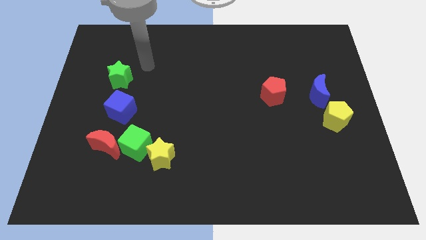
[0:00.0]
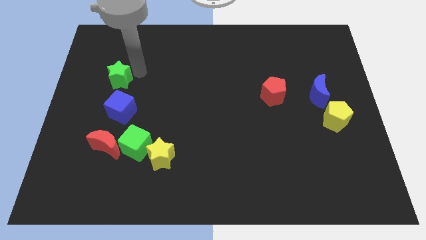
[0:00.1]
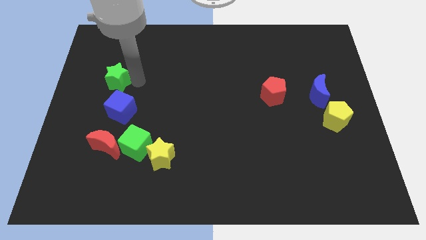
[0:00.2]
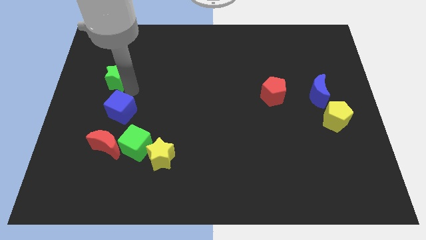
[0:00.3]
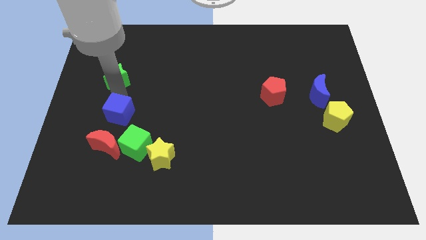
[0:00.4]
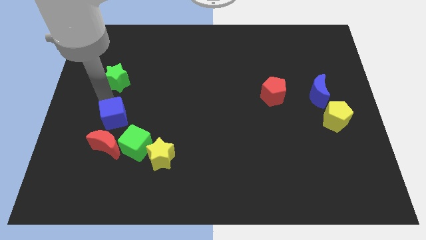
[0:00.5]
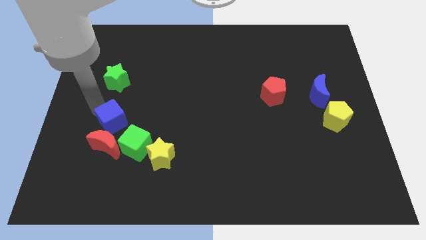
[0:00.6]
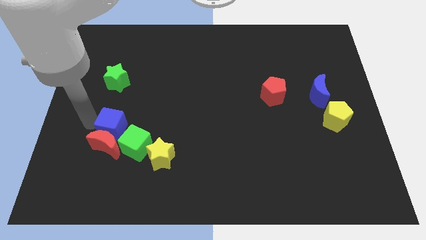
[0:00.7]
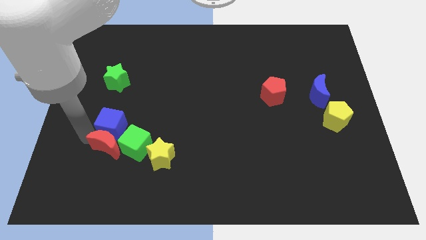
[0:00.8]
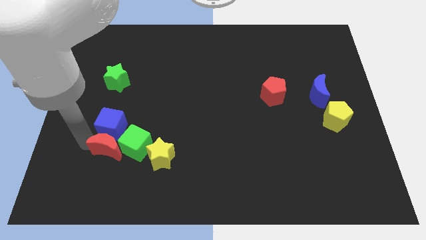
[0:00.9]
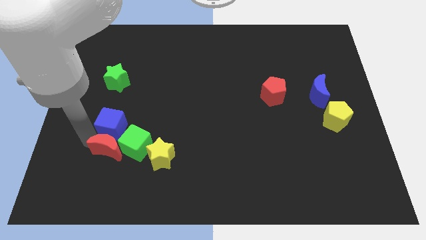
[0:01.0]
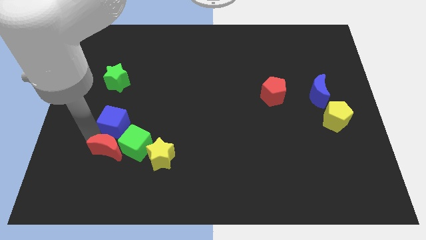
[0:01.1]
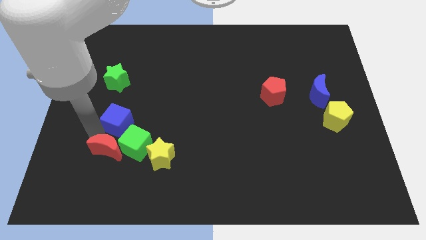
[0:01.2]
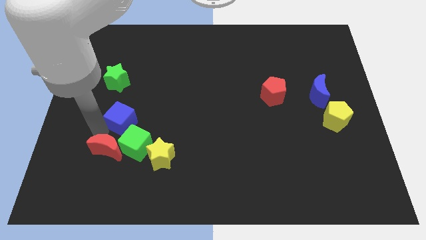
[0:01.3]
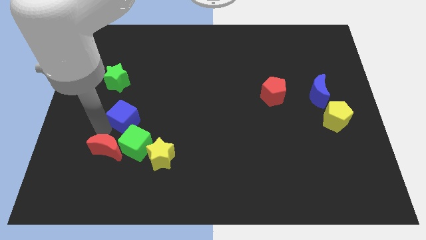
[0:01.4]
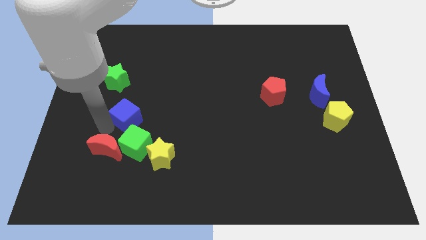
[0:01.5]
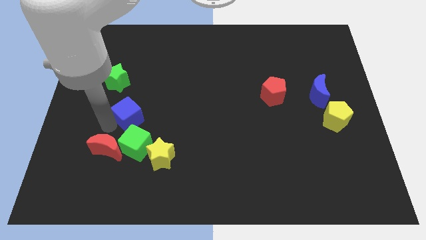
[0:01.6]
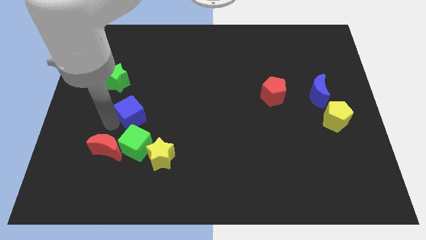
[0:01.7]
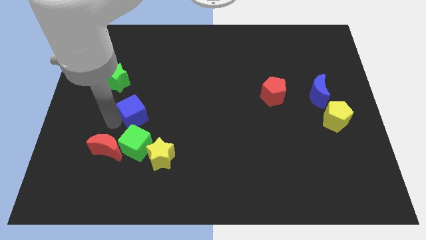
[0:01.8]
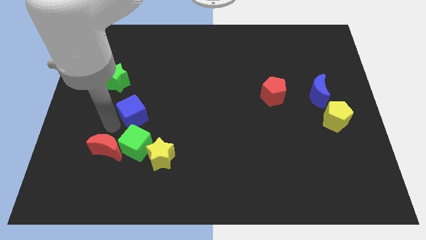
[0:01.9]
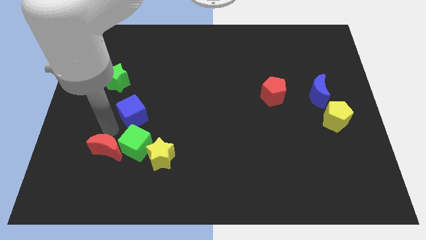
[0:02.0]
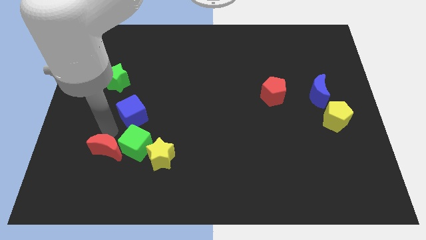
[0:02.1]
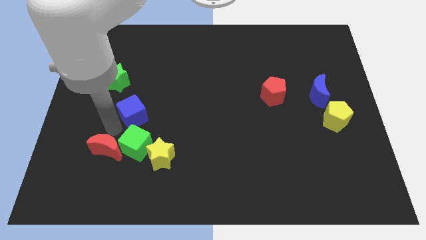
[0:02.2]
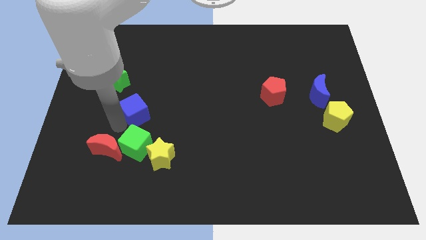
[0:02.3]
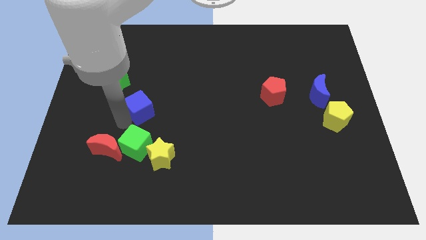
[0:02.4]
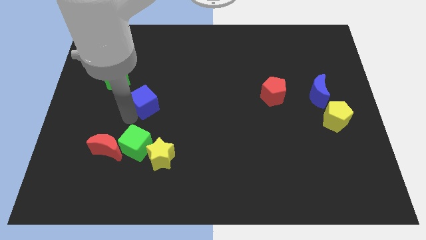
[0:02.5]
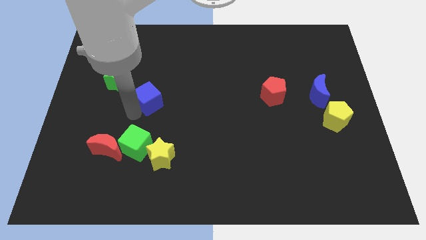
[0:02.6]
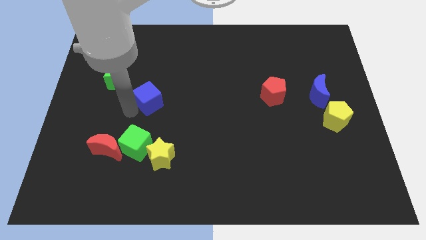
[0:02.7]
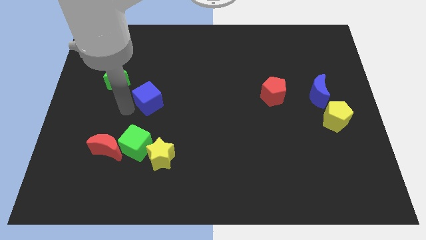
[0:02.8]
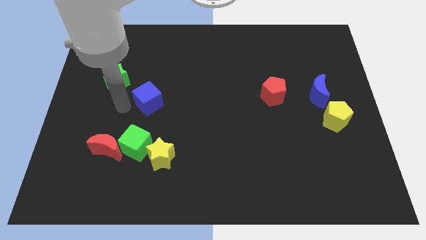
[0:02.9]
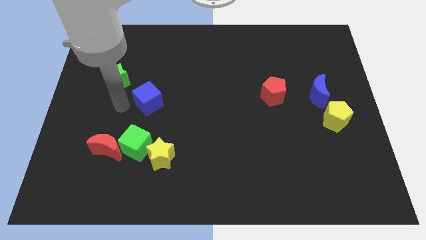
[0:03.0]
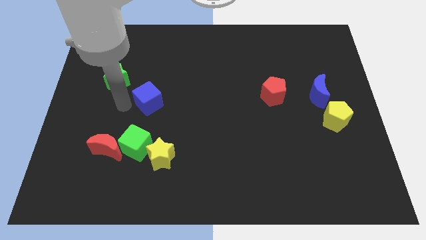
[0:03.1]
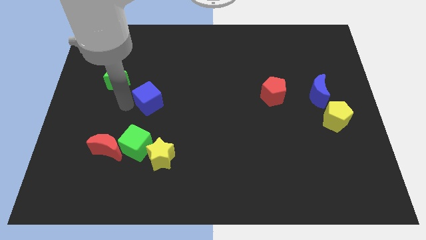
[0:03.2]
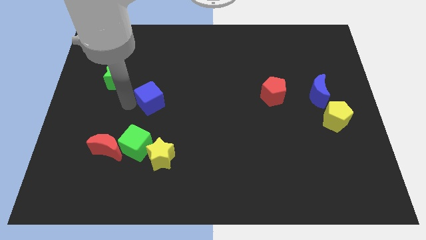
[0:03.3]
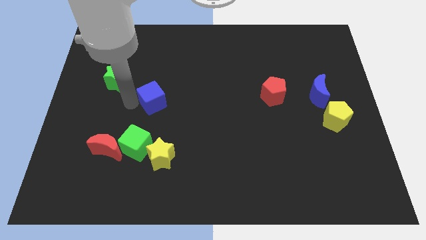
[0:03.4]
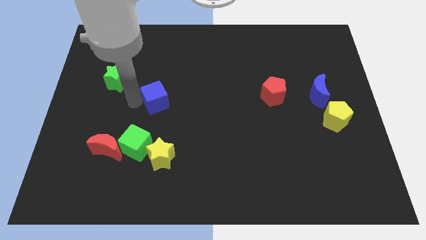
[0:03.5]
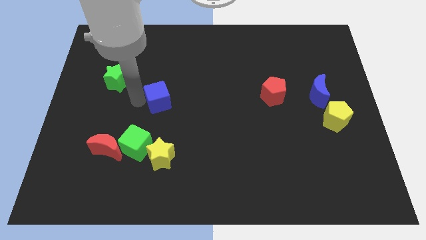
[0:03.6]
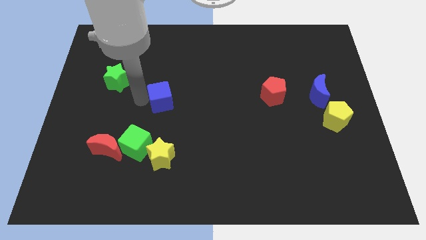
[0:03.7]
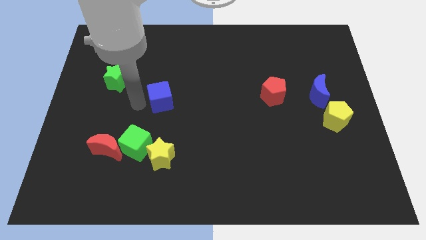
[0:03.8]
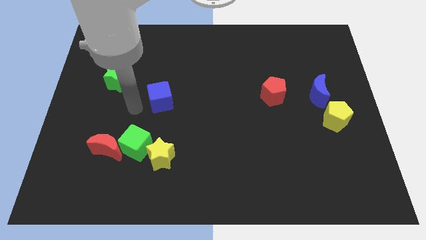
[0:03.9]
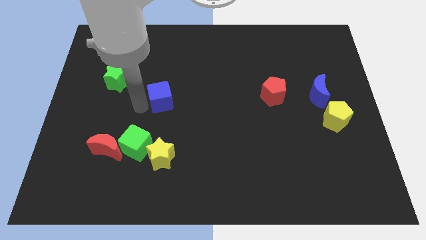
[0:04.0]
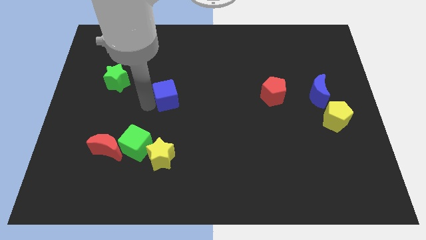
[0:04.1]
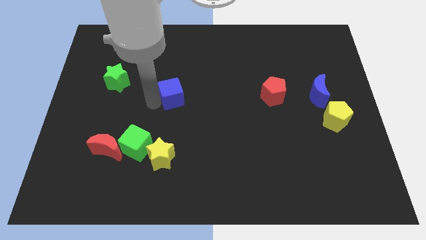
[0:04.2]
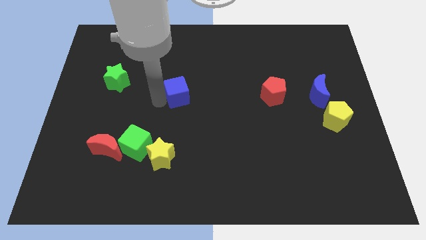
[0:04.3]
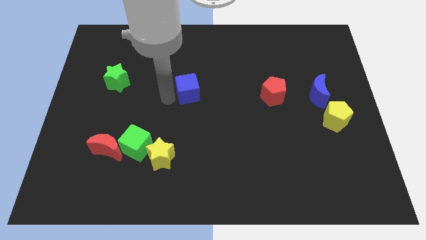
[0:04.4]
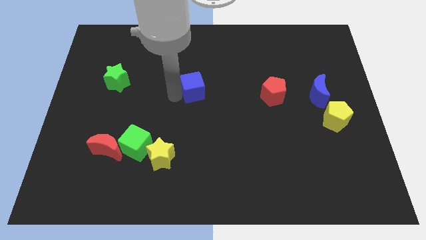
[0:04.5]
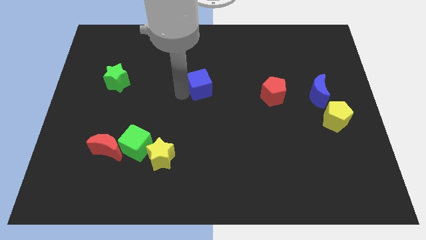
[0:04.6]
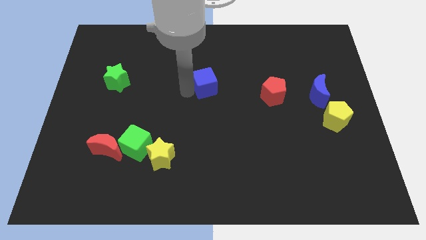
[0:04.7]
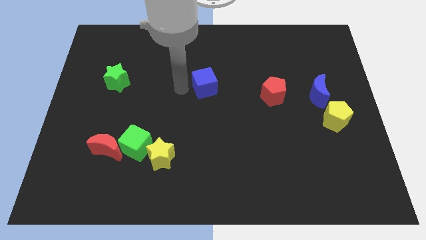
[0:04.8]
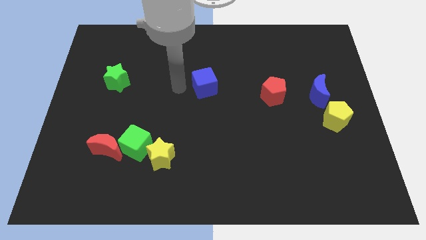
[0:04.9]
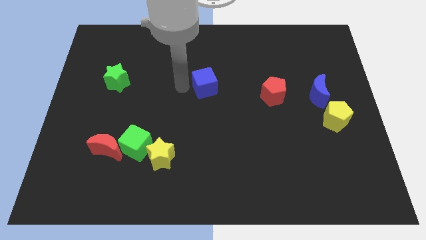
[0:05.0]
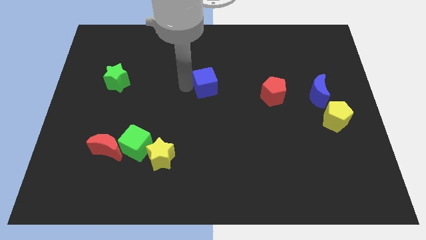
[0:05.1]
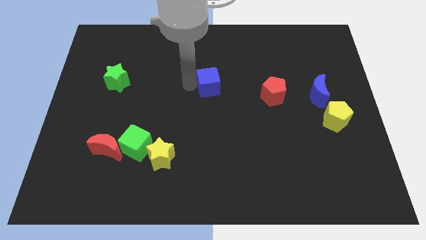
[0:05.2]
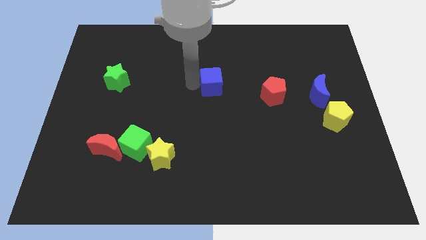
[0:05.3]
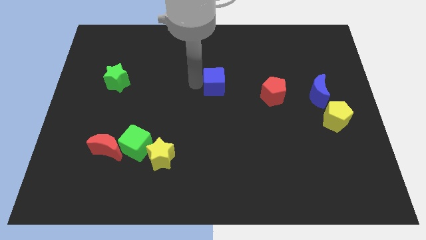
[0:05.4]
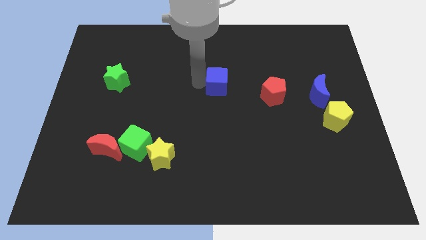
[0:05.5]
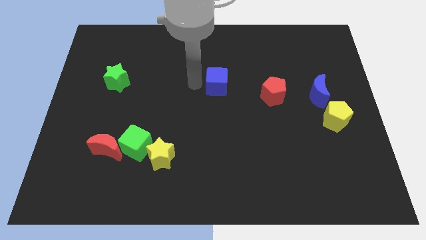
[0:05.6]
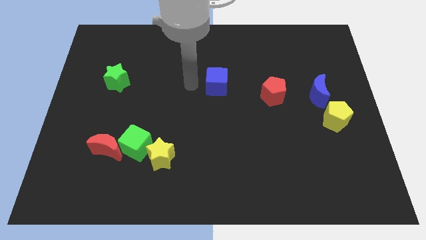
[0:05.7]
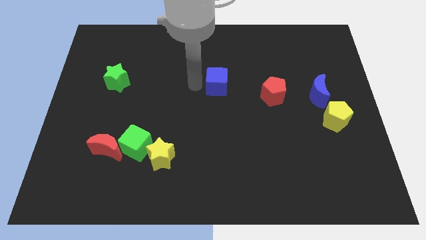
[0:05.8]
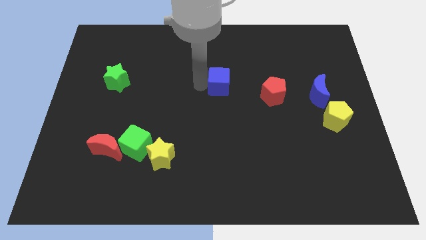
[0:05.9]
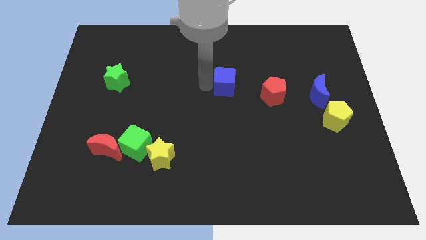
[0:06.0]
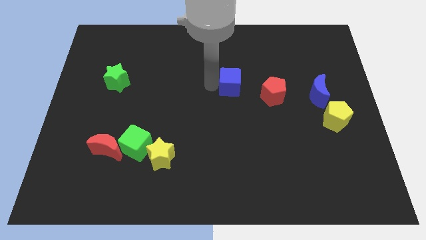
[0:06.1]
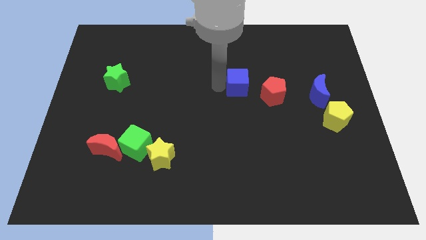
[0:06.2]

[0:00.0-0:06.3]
move the blue cube diagonally up and to the left of the red pentagon

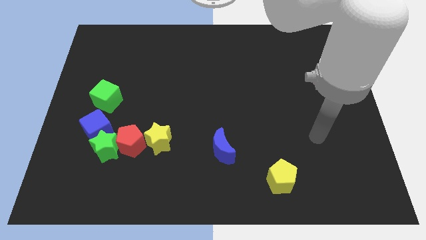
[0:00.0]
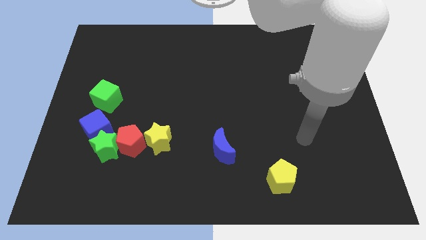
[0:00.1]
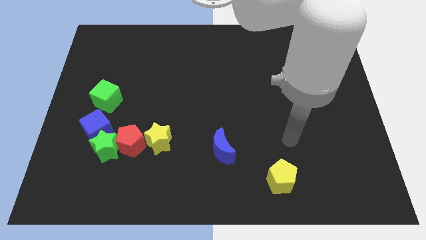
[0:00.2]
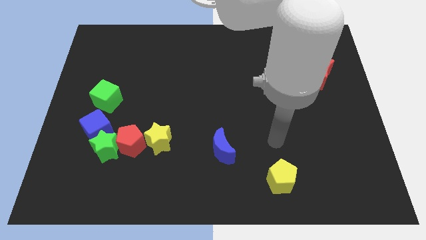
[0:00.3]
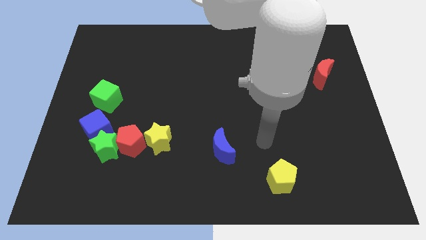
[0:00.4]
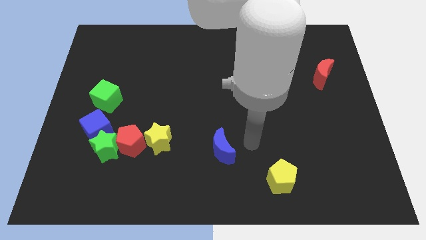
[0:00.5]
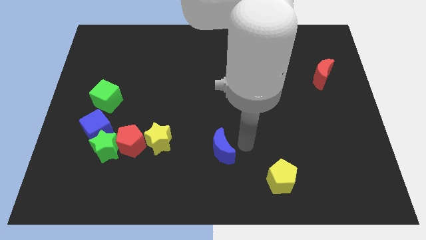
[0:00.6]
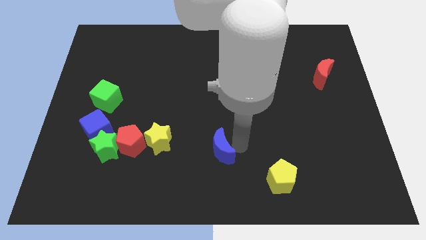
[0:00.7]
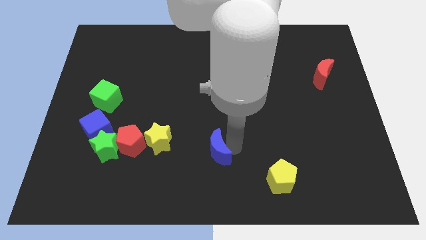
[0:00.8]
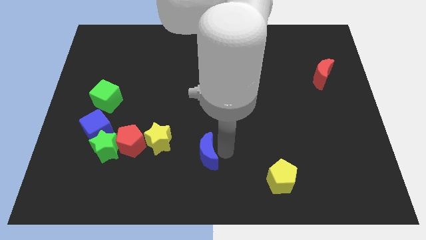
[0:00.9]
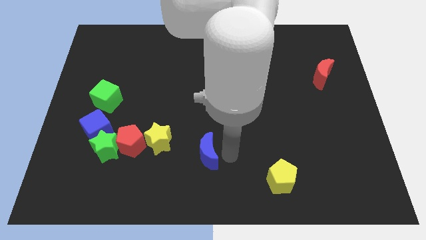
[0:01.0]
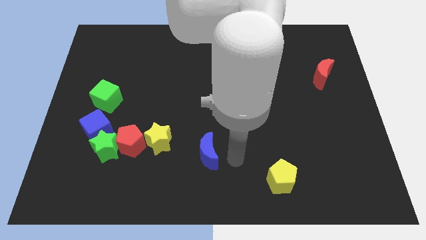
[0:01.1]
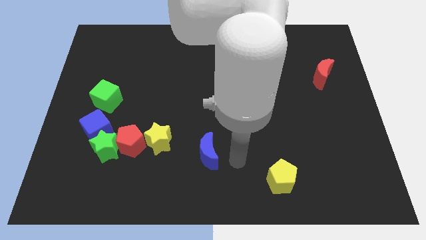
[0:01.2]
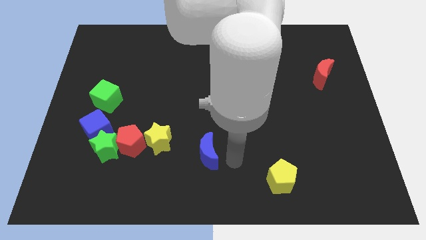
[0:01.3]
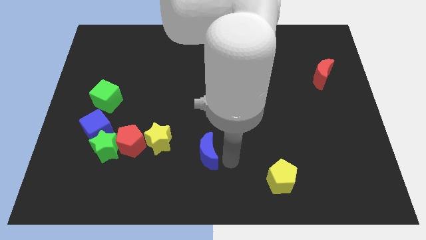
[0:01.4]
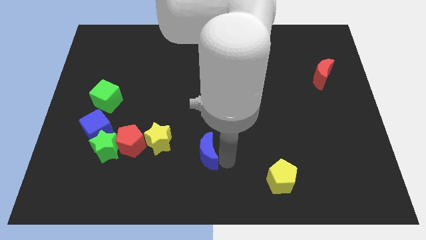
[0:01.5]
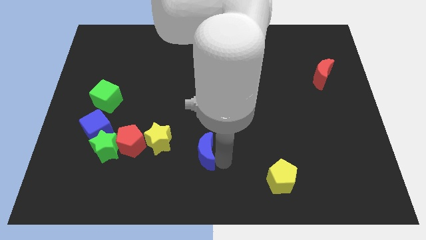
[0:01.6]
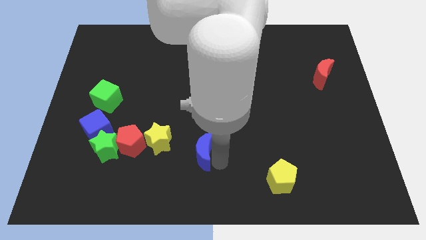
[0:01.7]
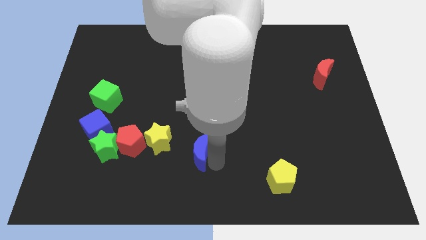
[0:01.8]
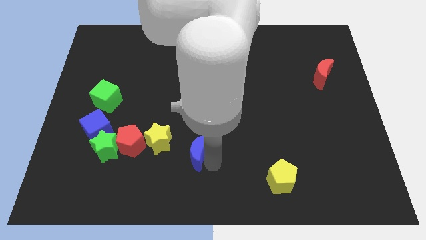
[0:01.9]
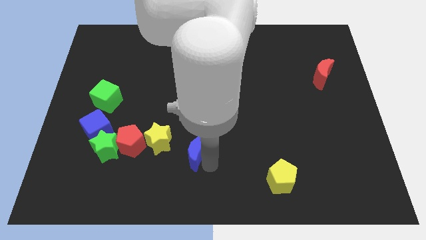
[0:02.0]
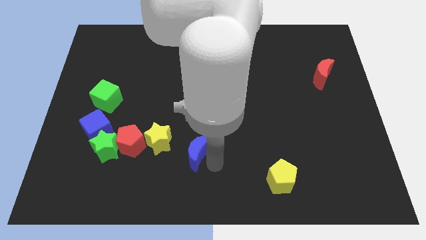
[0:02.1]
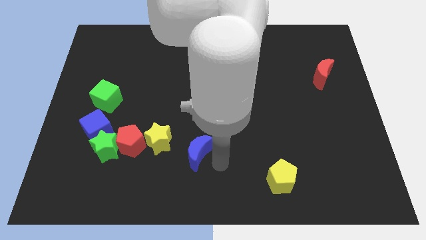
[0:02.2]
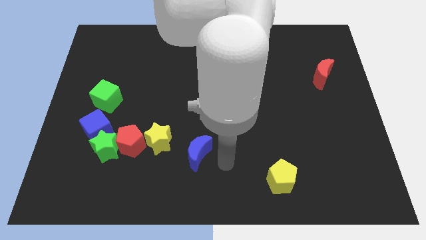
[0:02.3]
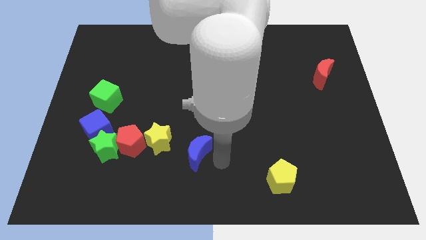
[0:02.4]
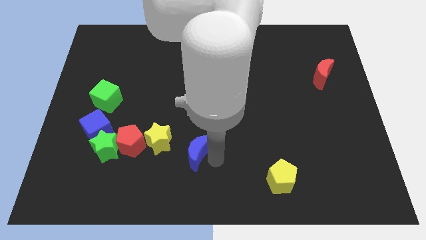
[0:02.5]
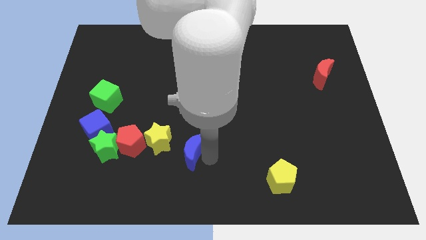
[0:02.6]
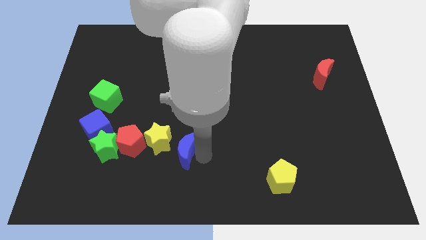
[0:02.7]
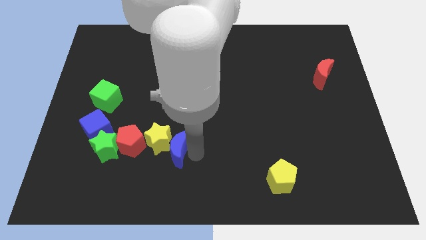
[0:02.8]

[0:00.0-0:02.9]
move the blue moon to the right side of the green star
